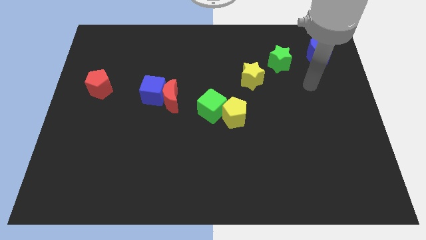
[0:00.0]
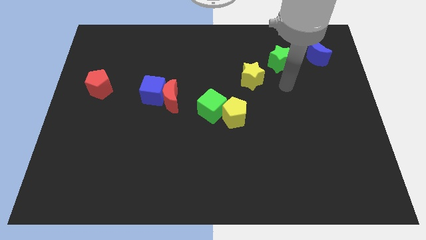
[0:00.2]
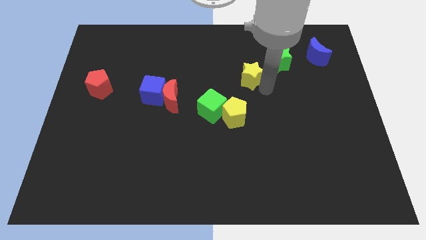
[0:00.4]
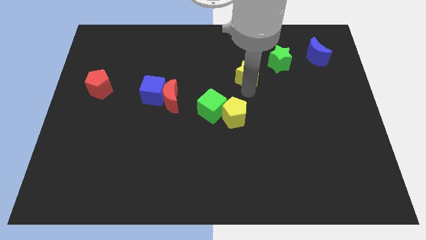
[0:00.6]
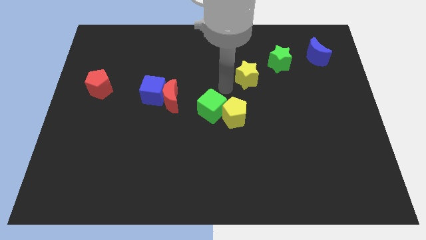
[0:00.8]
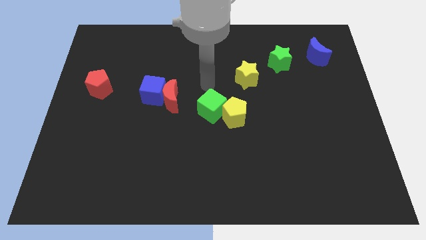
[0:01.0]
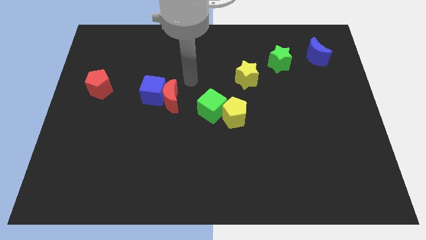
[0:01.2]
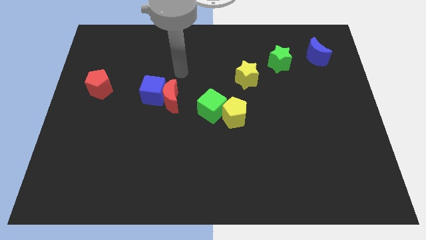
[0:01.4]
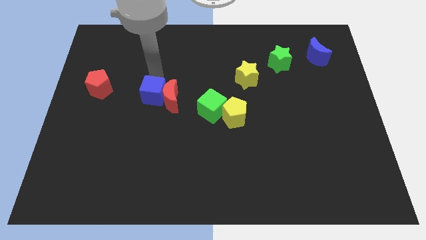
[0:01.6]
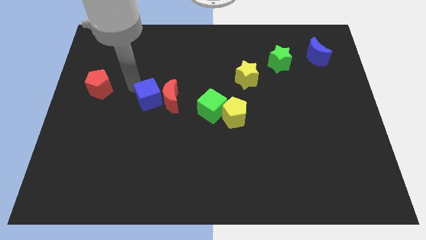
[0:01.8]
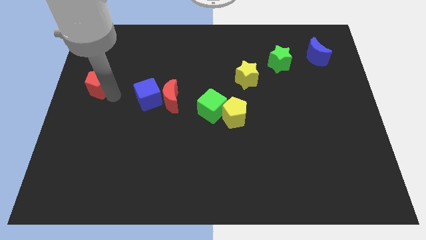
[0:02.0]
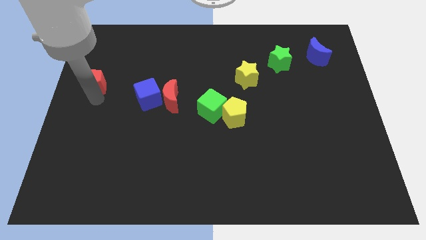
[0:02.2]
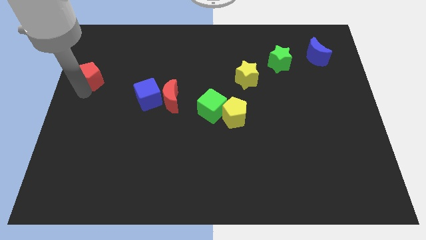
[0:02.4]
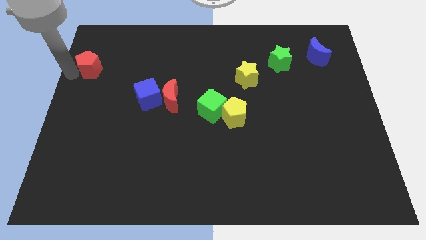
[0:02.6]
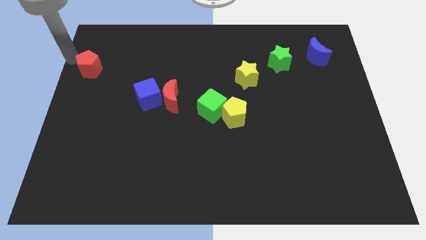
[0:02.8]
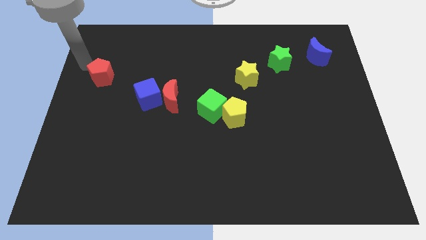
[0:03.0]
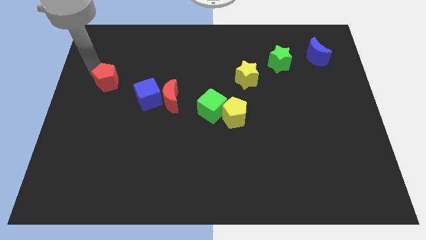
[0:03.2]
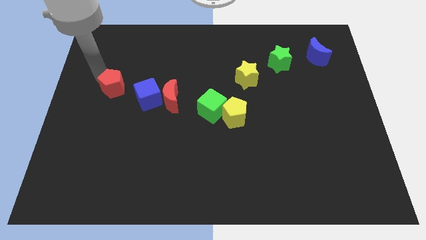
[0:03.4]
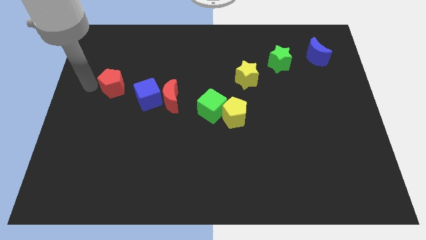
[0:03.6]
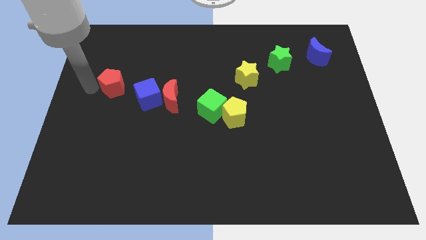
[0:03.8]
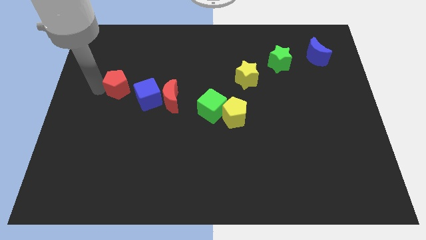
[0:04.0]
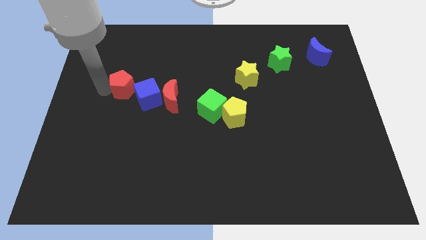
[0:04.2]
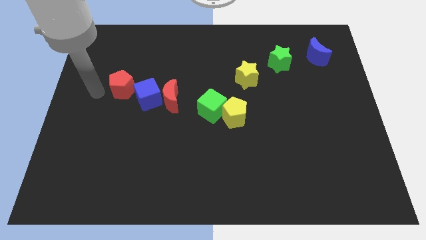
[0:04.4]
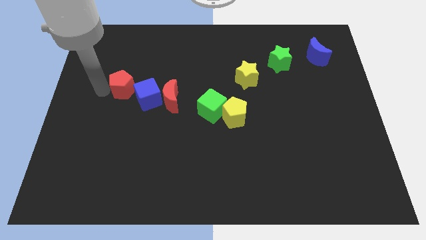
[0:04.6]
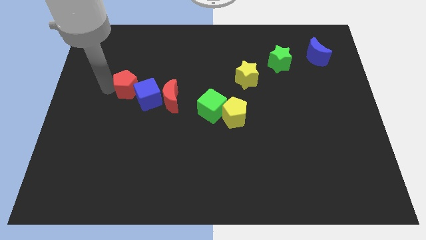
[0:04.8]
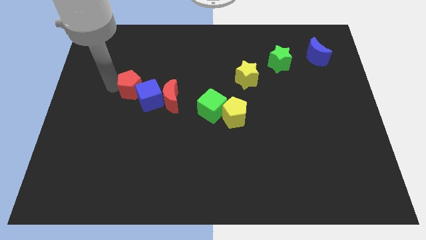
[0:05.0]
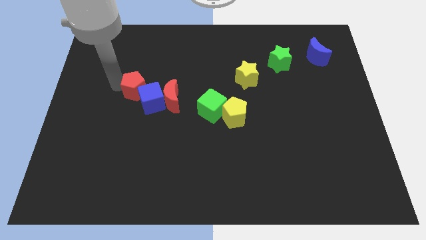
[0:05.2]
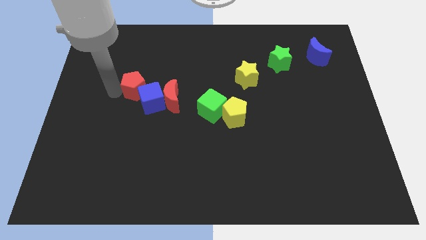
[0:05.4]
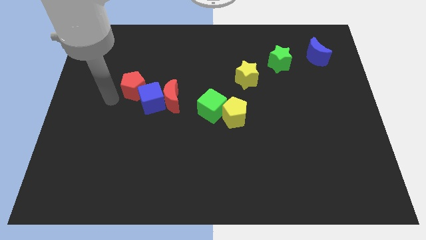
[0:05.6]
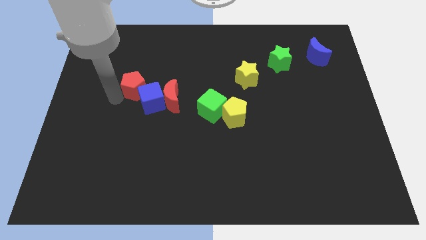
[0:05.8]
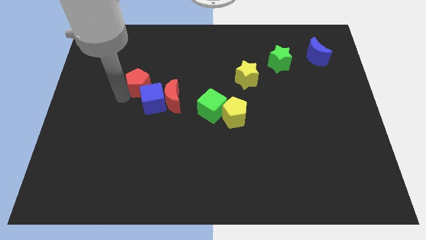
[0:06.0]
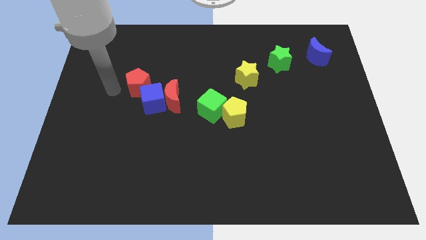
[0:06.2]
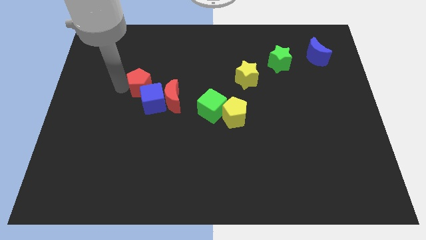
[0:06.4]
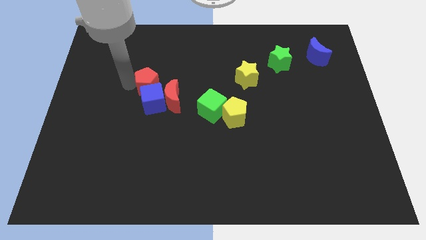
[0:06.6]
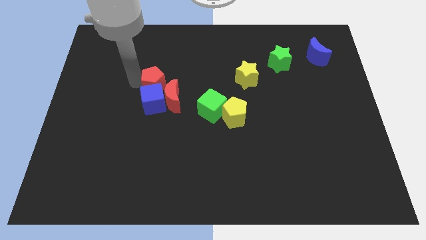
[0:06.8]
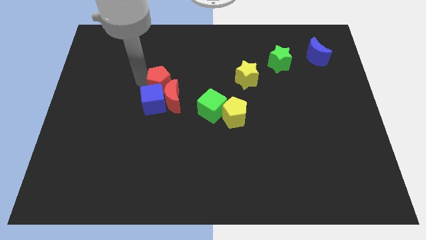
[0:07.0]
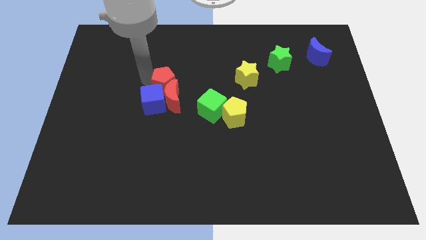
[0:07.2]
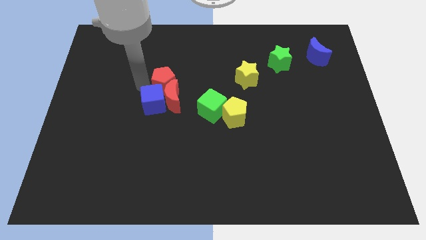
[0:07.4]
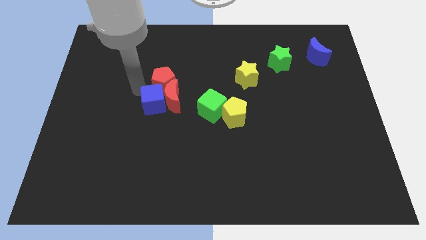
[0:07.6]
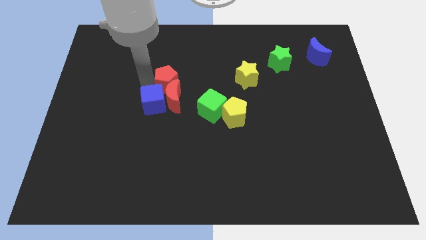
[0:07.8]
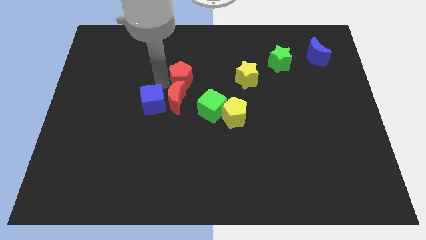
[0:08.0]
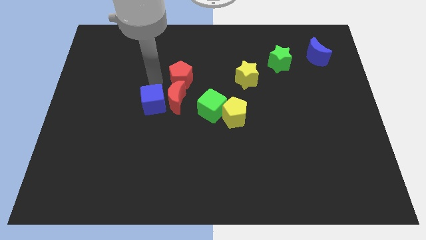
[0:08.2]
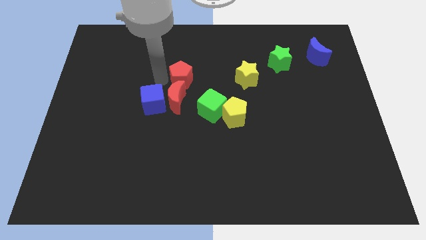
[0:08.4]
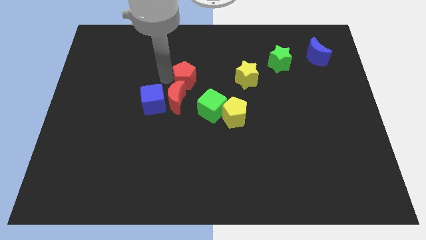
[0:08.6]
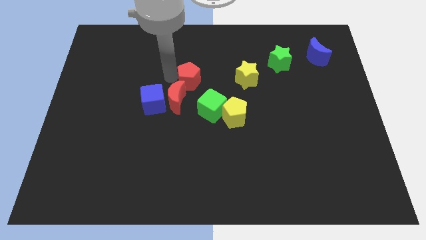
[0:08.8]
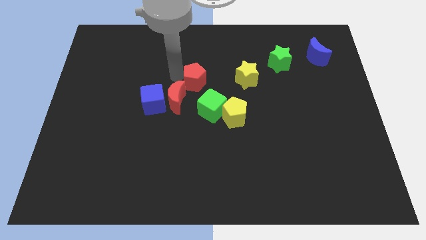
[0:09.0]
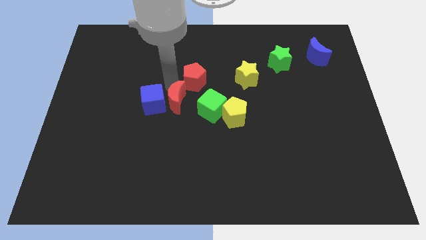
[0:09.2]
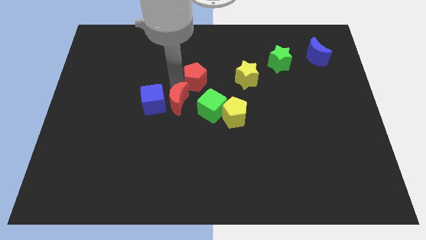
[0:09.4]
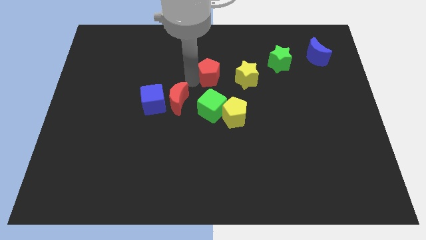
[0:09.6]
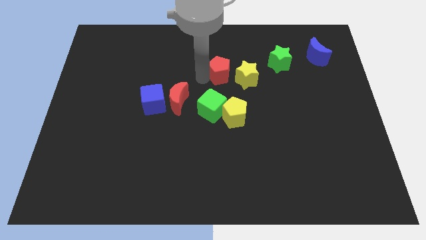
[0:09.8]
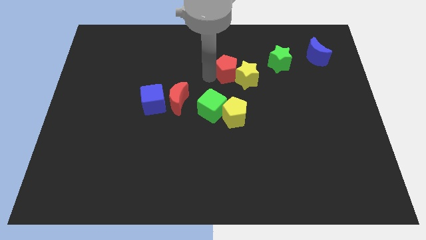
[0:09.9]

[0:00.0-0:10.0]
slide the red pentagon just left of the green star

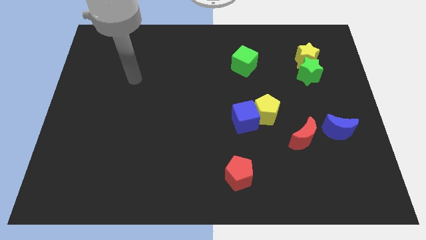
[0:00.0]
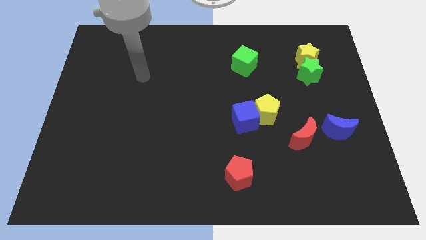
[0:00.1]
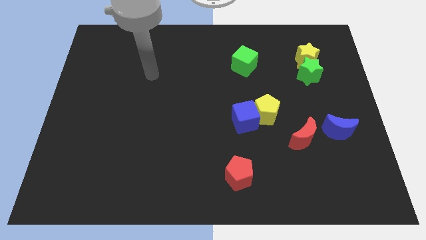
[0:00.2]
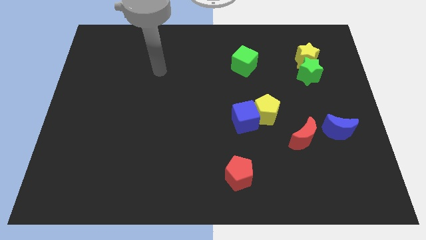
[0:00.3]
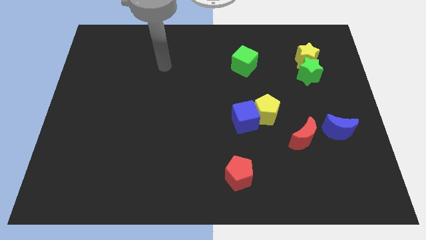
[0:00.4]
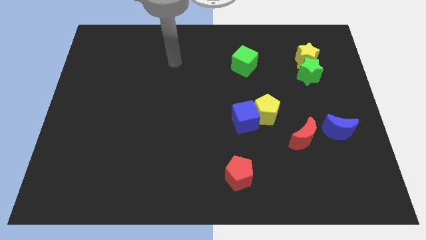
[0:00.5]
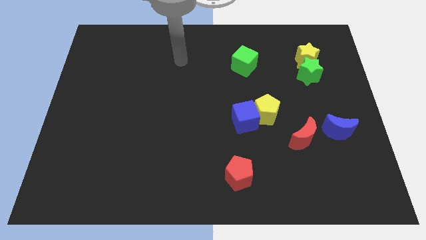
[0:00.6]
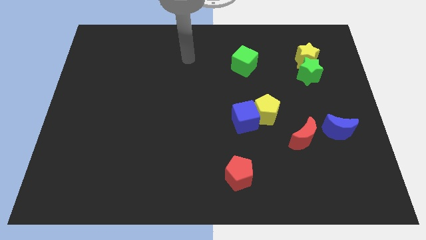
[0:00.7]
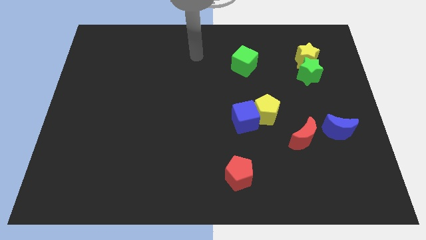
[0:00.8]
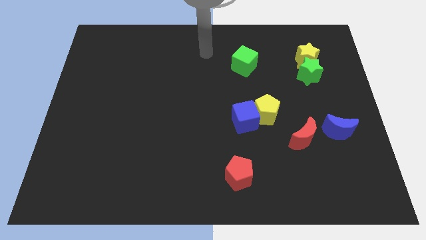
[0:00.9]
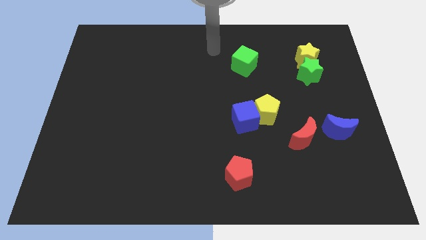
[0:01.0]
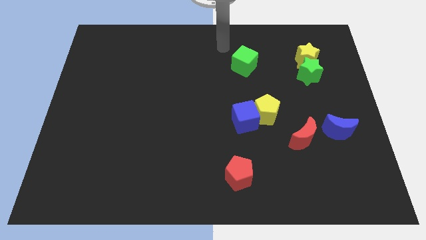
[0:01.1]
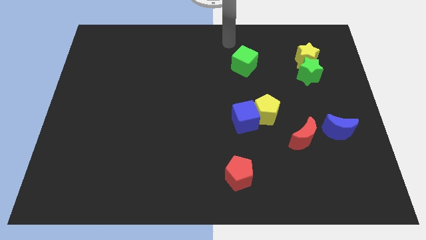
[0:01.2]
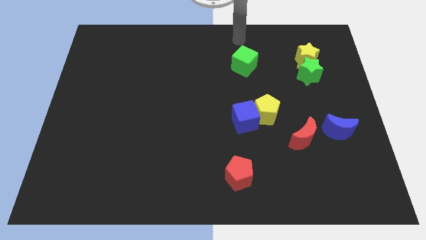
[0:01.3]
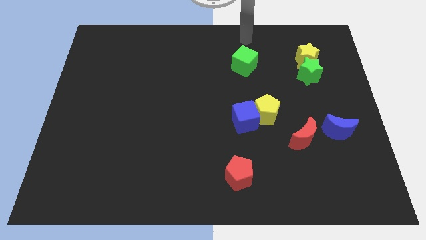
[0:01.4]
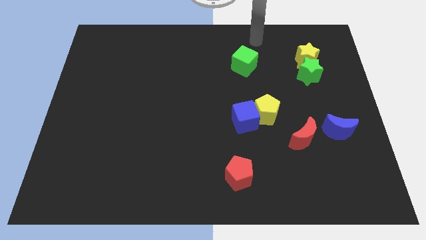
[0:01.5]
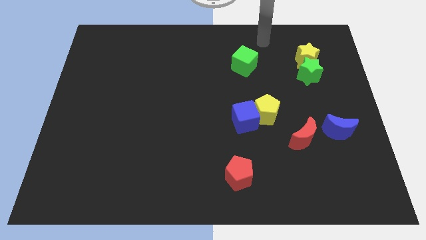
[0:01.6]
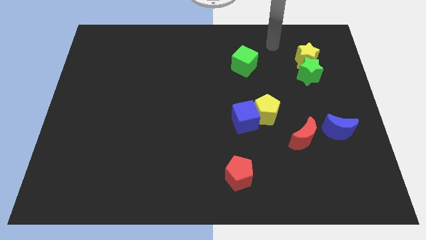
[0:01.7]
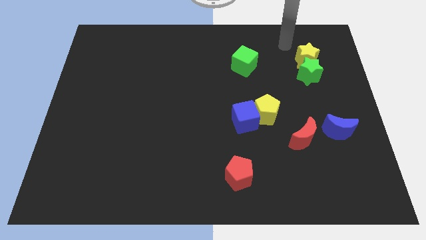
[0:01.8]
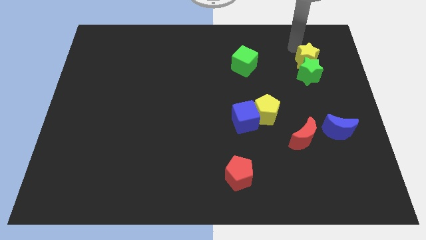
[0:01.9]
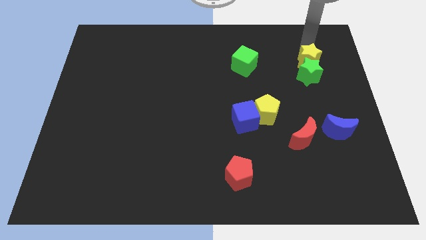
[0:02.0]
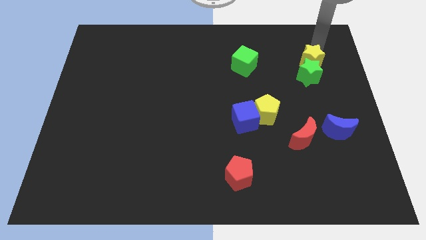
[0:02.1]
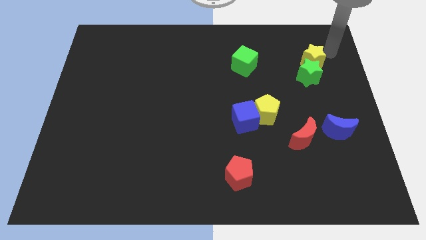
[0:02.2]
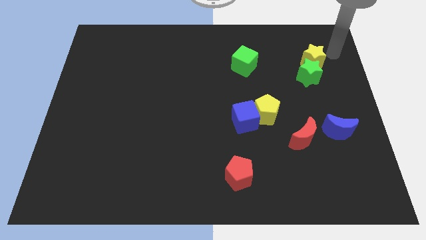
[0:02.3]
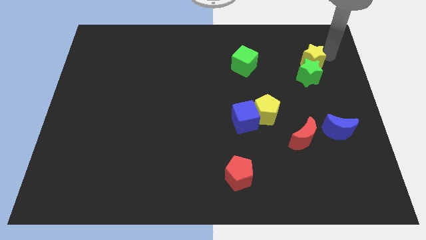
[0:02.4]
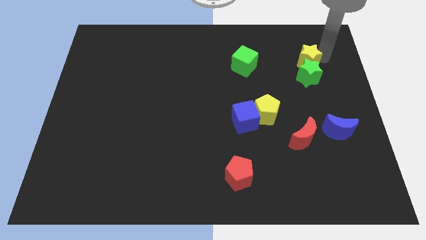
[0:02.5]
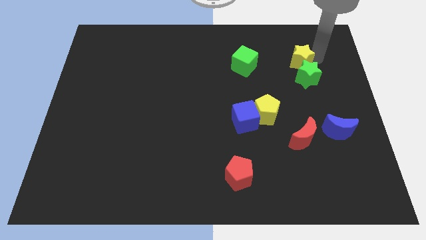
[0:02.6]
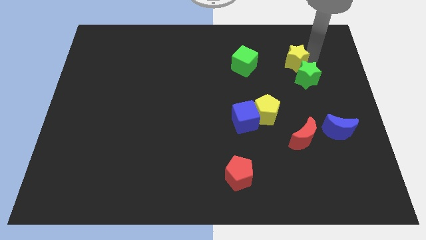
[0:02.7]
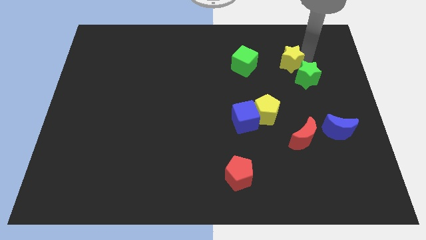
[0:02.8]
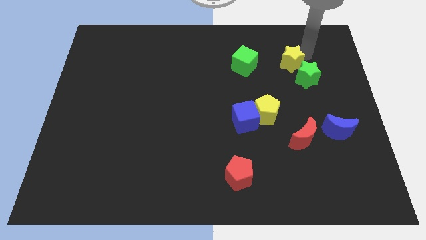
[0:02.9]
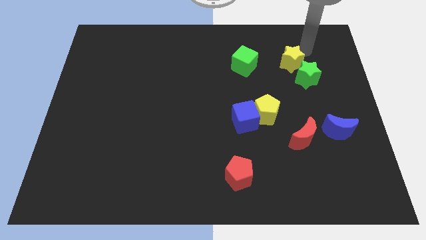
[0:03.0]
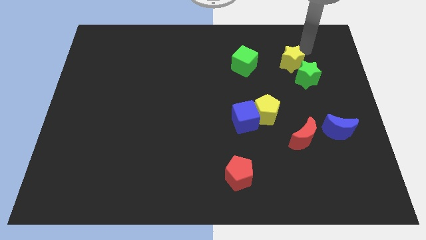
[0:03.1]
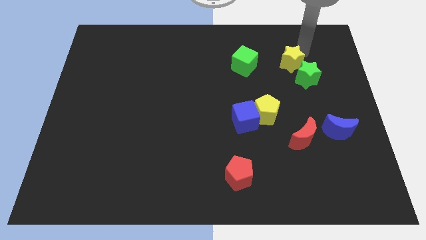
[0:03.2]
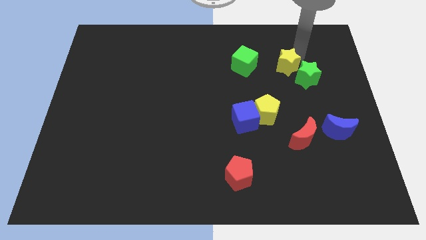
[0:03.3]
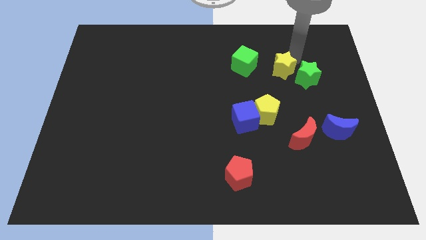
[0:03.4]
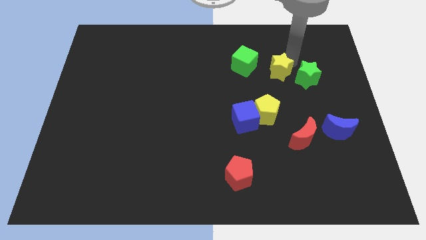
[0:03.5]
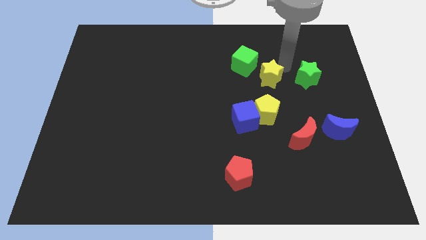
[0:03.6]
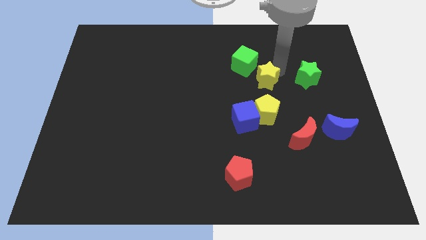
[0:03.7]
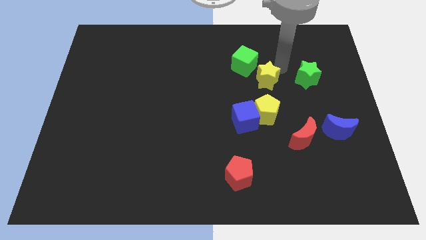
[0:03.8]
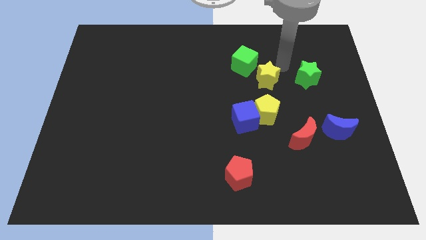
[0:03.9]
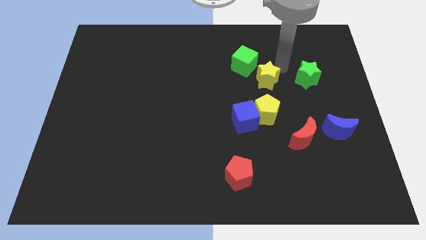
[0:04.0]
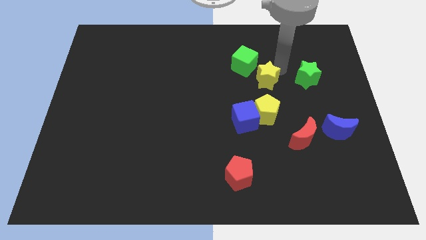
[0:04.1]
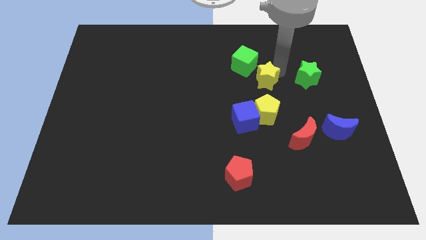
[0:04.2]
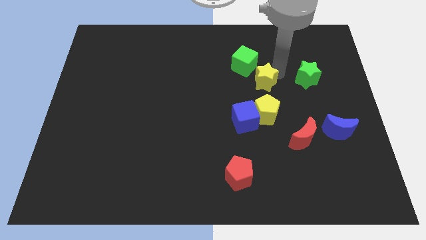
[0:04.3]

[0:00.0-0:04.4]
slide the yellow star to the bottom of the green cube
